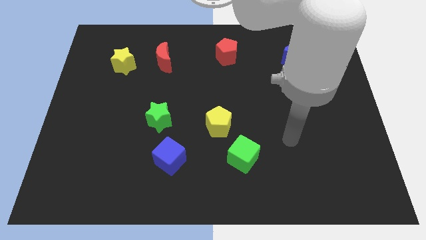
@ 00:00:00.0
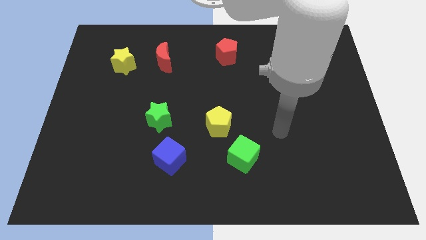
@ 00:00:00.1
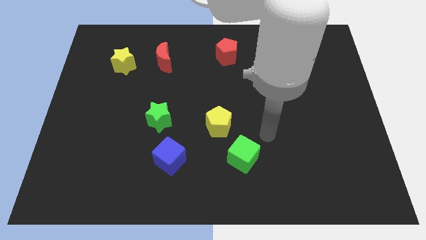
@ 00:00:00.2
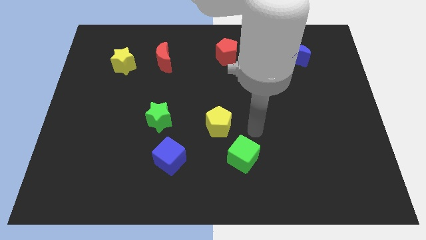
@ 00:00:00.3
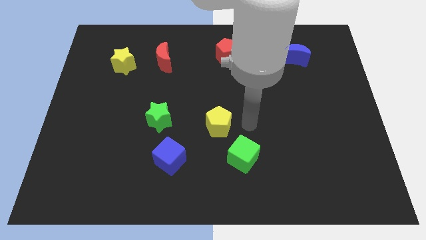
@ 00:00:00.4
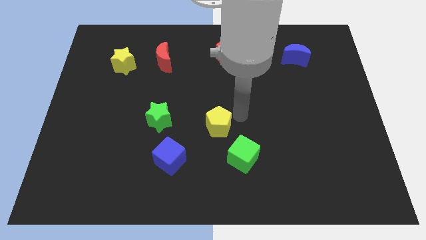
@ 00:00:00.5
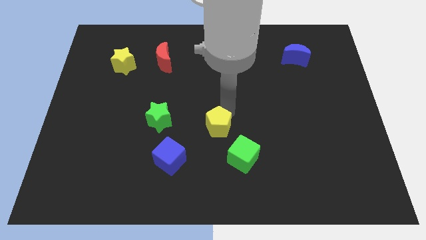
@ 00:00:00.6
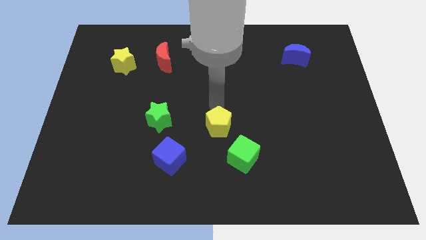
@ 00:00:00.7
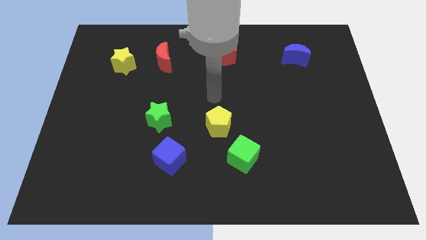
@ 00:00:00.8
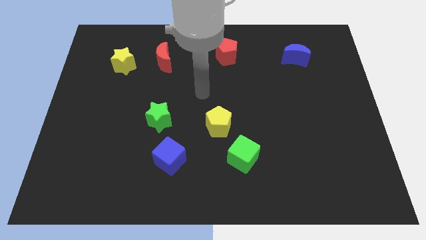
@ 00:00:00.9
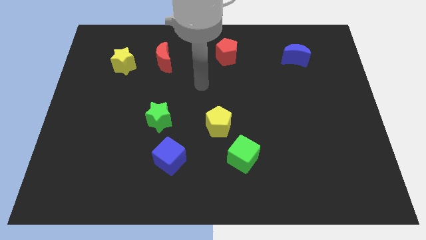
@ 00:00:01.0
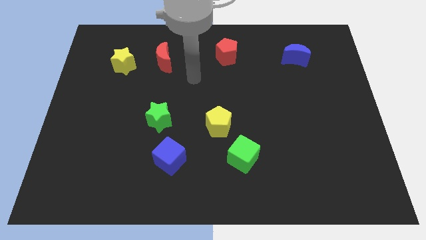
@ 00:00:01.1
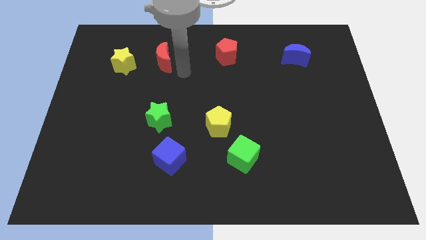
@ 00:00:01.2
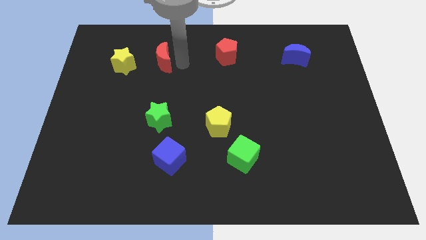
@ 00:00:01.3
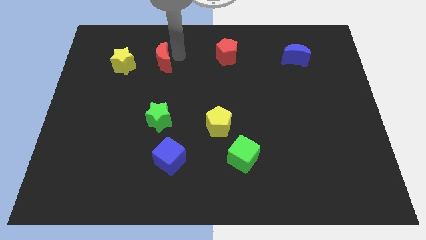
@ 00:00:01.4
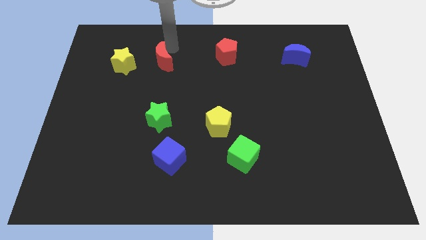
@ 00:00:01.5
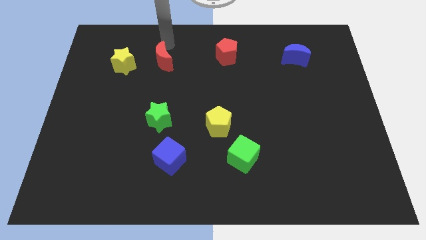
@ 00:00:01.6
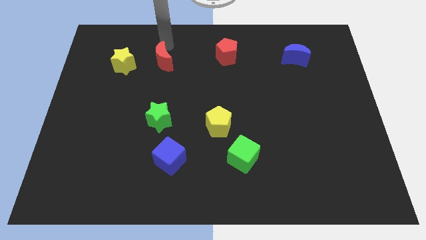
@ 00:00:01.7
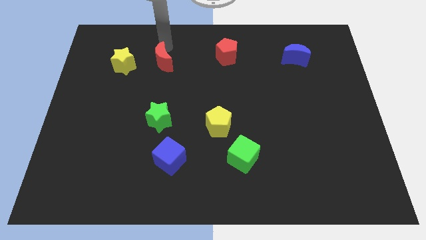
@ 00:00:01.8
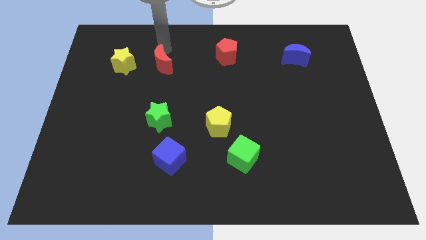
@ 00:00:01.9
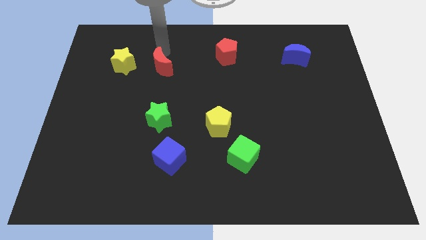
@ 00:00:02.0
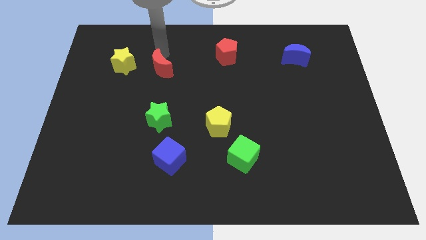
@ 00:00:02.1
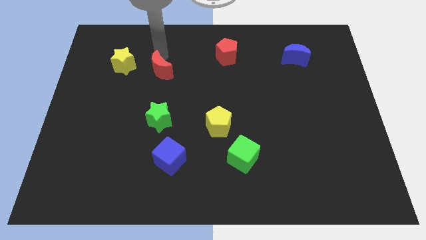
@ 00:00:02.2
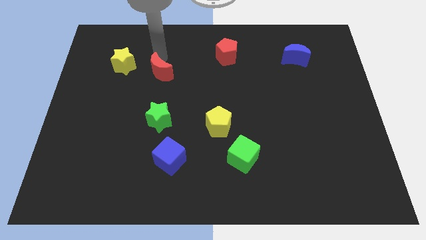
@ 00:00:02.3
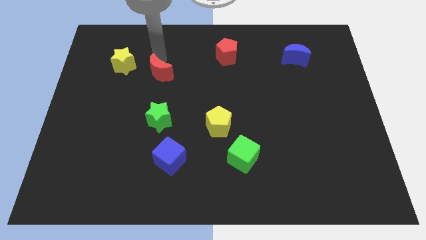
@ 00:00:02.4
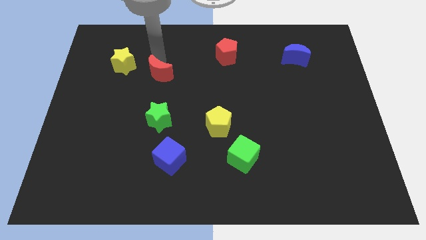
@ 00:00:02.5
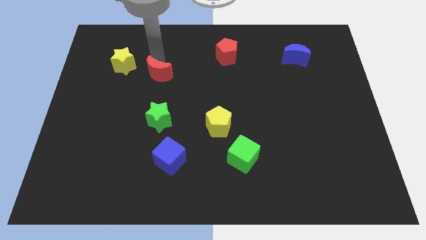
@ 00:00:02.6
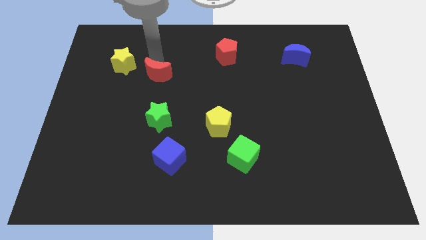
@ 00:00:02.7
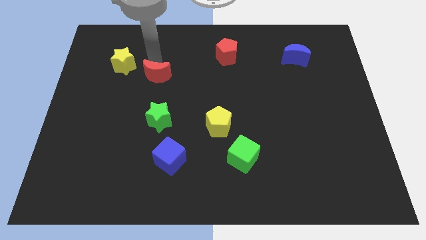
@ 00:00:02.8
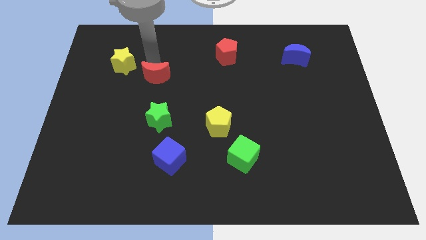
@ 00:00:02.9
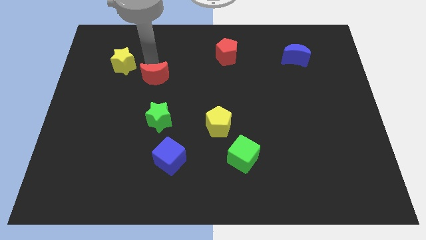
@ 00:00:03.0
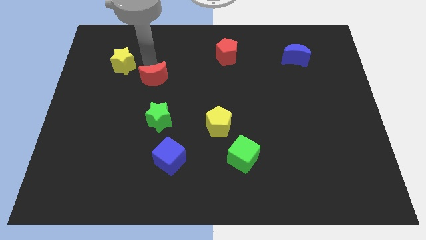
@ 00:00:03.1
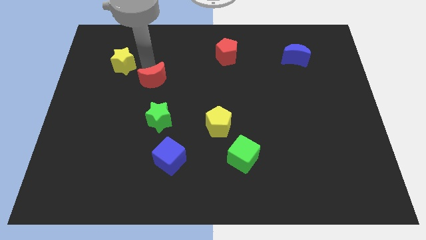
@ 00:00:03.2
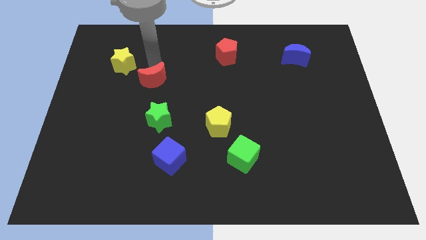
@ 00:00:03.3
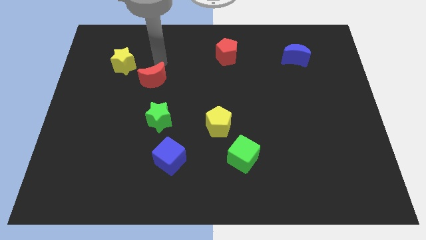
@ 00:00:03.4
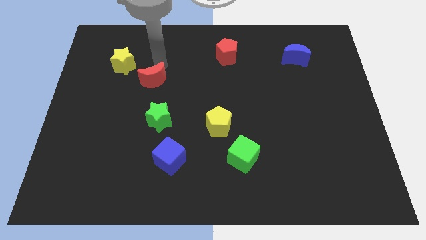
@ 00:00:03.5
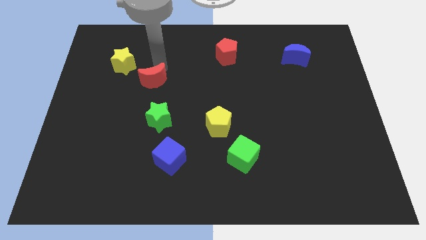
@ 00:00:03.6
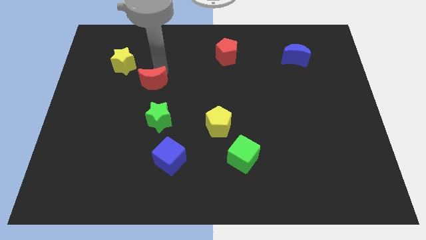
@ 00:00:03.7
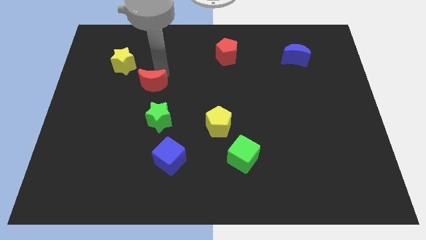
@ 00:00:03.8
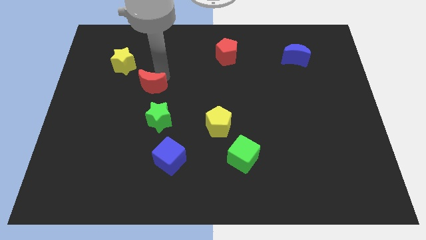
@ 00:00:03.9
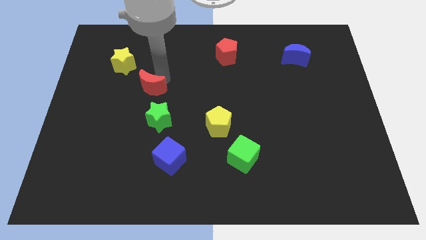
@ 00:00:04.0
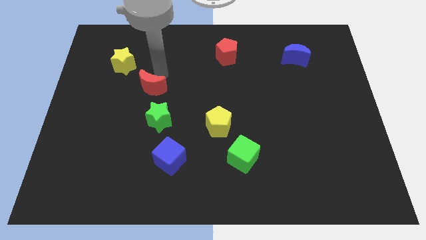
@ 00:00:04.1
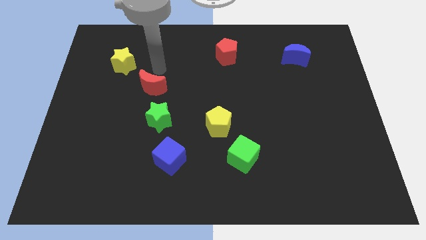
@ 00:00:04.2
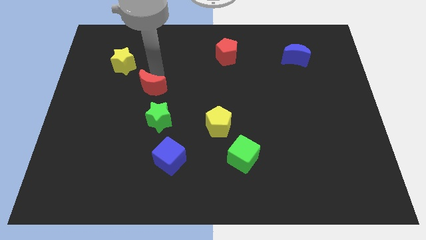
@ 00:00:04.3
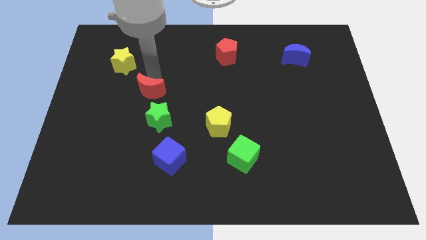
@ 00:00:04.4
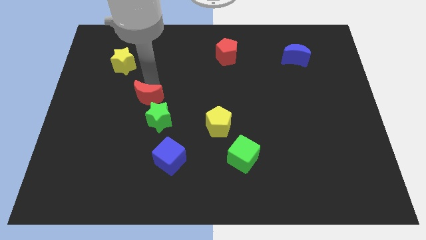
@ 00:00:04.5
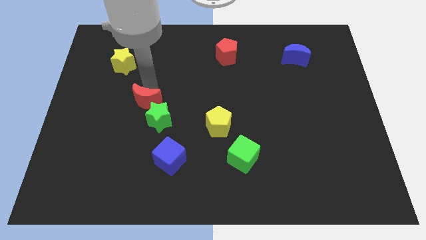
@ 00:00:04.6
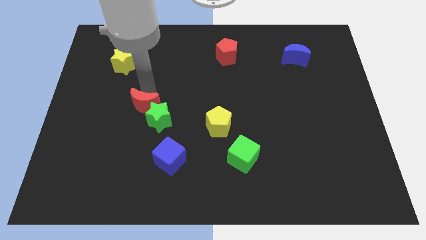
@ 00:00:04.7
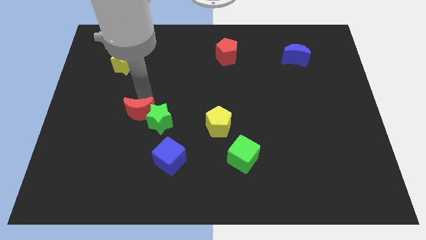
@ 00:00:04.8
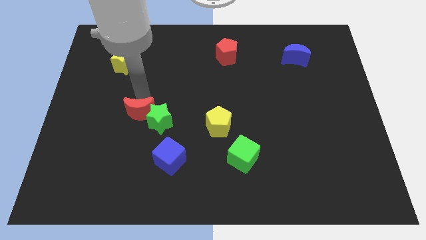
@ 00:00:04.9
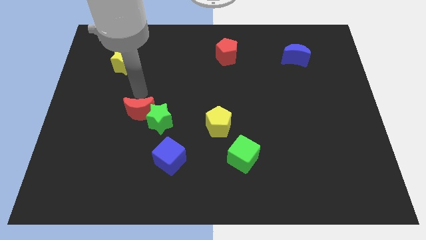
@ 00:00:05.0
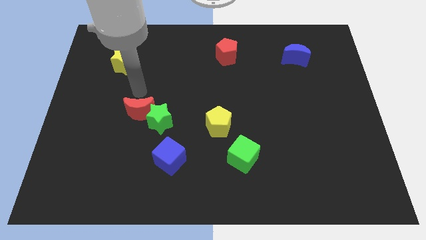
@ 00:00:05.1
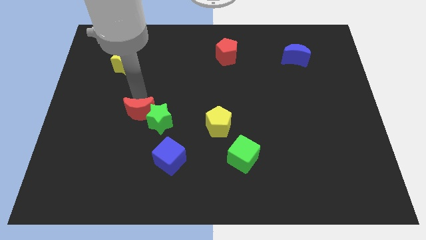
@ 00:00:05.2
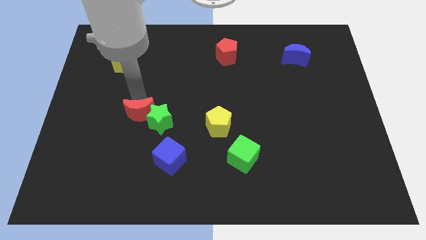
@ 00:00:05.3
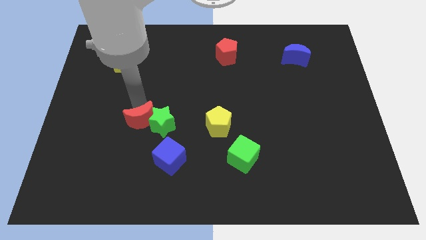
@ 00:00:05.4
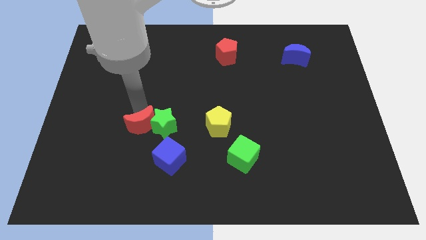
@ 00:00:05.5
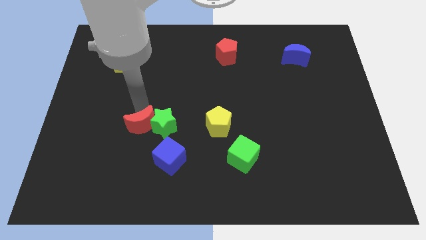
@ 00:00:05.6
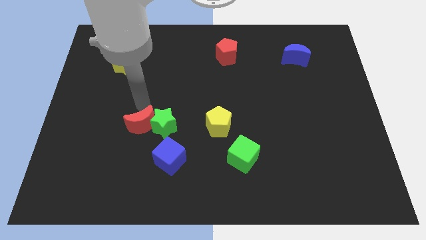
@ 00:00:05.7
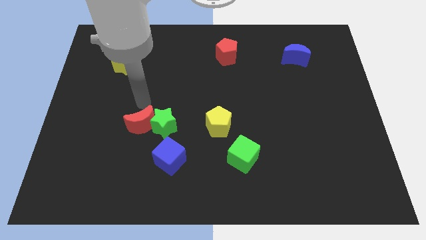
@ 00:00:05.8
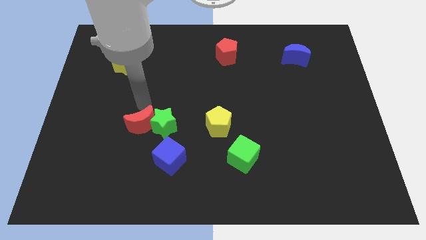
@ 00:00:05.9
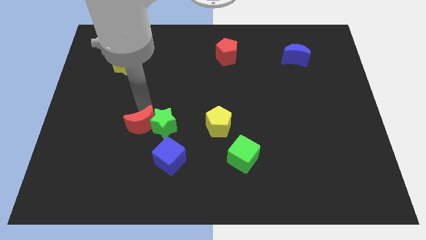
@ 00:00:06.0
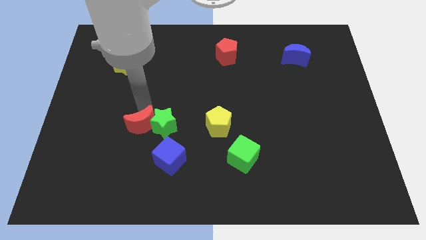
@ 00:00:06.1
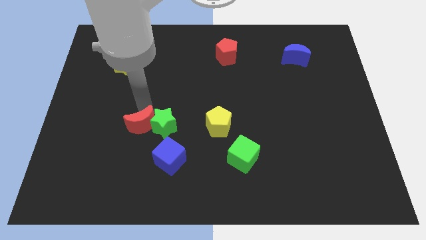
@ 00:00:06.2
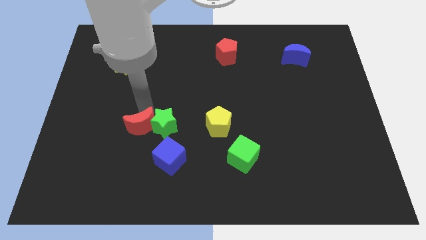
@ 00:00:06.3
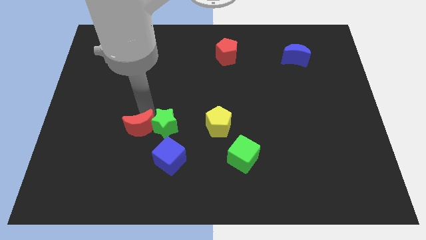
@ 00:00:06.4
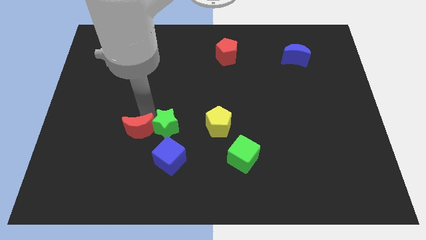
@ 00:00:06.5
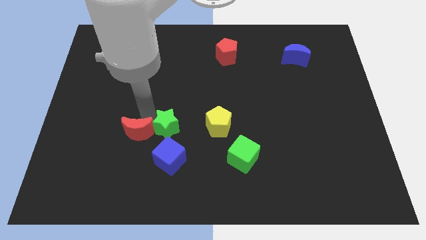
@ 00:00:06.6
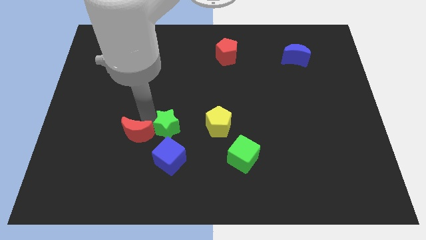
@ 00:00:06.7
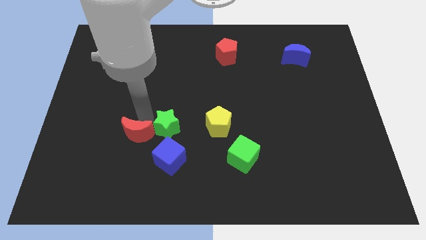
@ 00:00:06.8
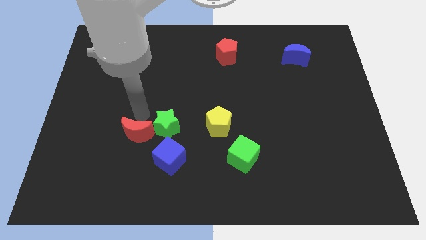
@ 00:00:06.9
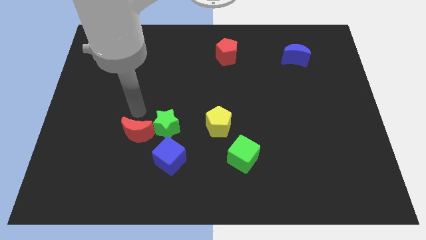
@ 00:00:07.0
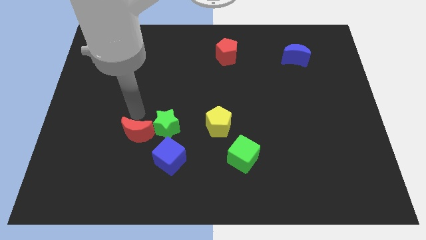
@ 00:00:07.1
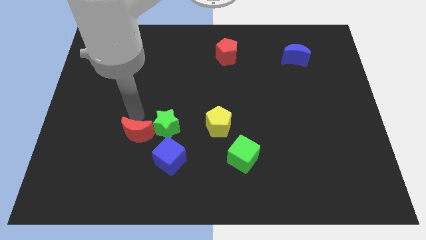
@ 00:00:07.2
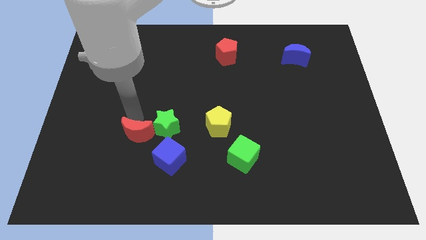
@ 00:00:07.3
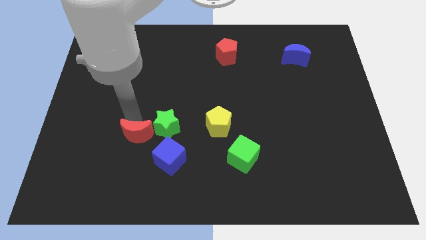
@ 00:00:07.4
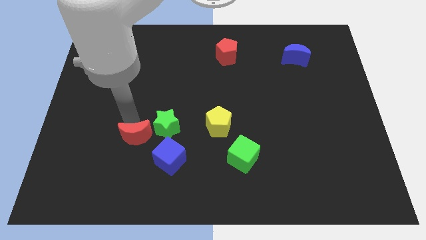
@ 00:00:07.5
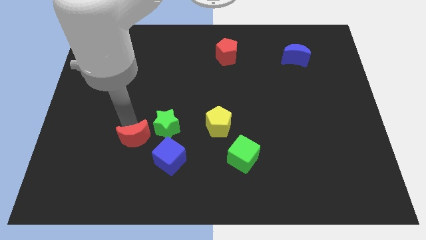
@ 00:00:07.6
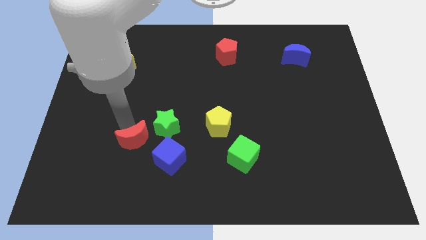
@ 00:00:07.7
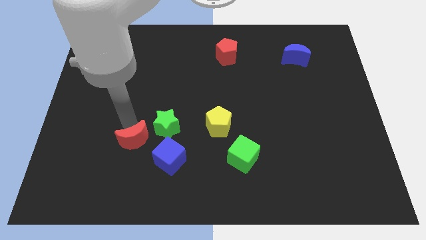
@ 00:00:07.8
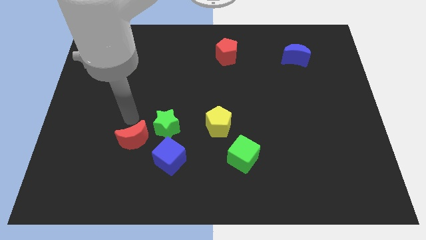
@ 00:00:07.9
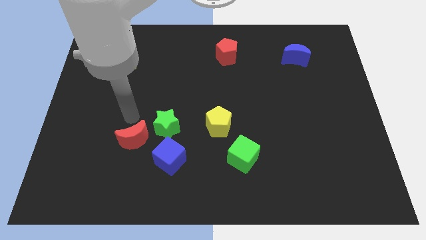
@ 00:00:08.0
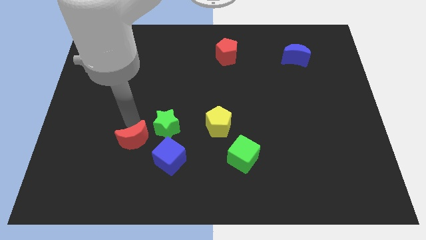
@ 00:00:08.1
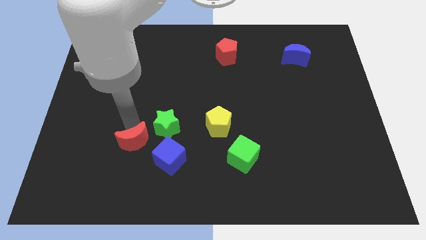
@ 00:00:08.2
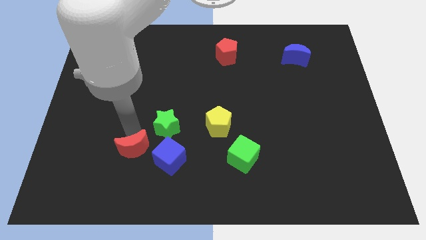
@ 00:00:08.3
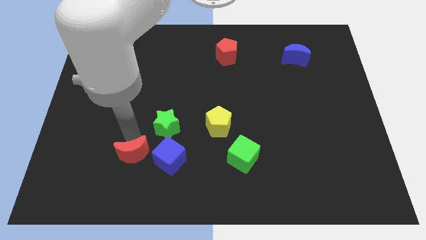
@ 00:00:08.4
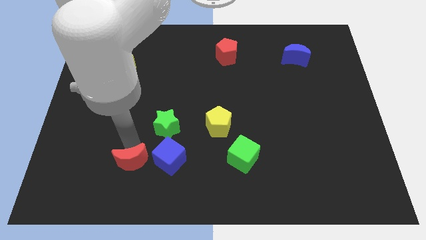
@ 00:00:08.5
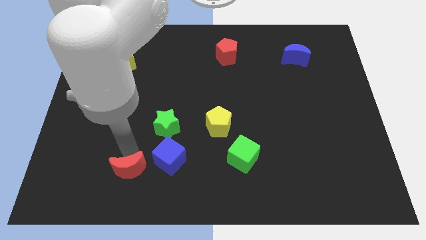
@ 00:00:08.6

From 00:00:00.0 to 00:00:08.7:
move the red moon diagonally down and to the left of the blue cube
